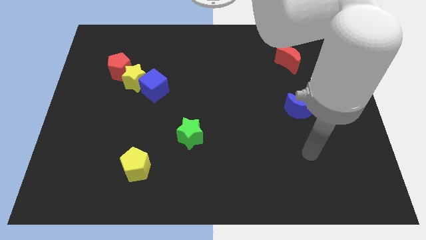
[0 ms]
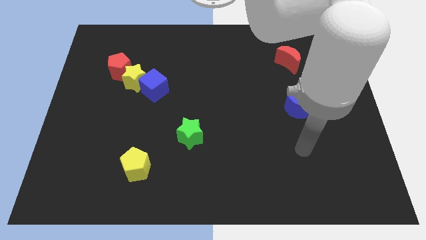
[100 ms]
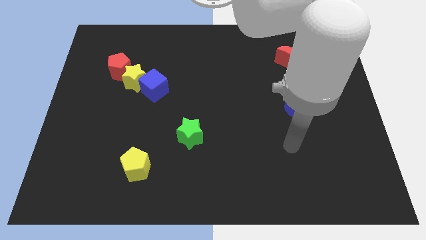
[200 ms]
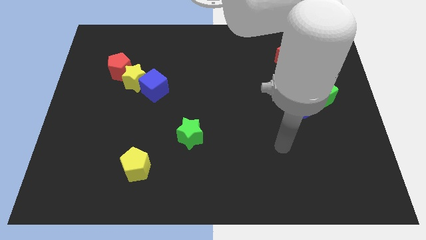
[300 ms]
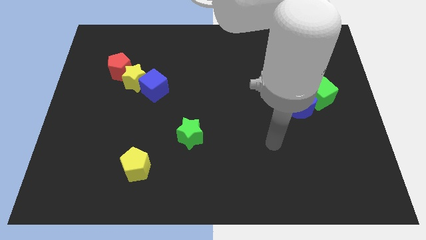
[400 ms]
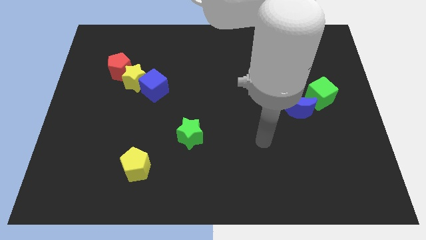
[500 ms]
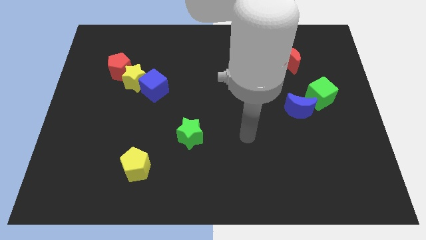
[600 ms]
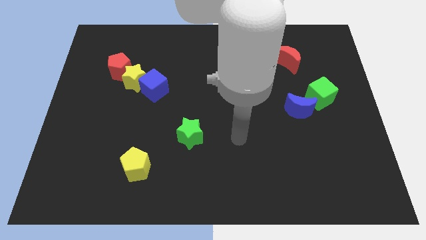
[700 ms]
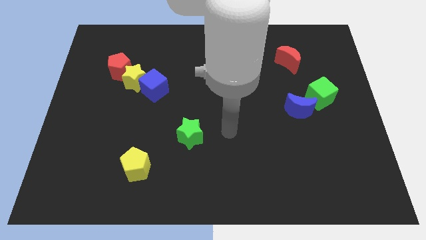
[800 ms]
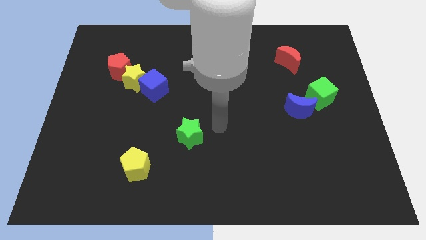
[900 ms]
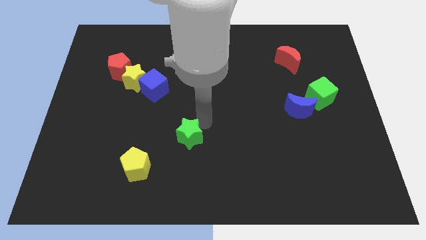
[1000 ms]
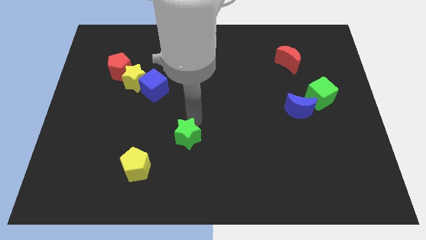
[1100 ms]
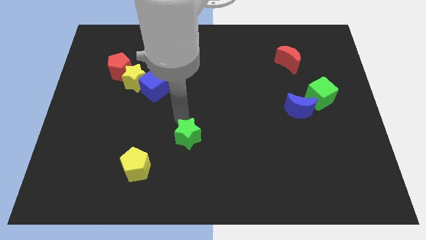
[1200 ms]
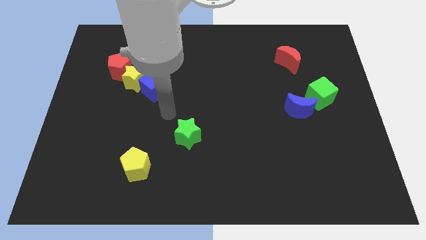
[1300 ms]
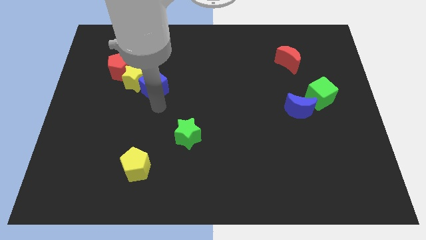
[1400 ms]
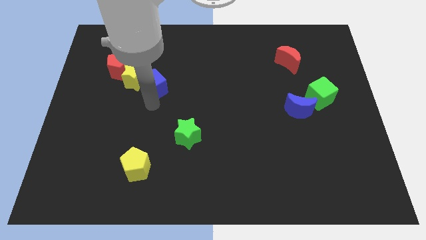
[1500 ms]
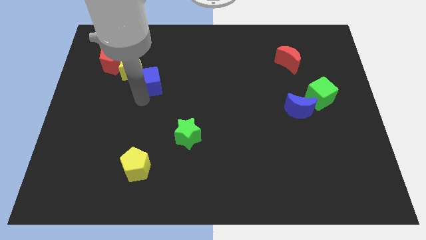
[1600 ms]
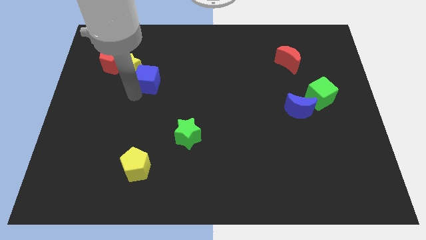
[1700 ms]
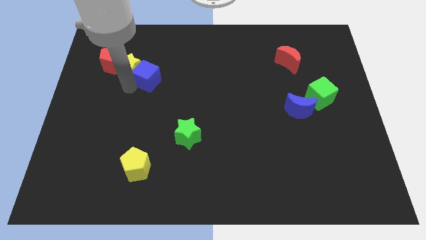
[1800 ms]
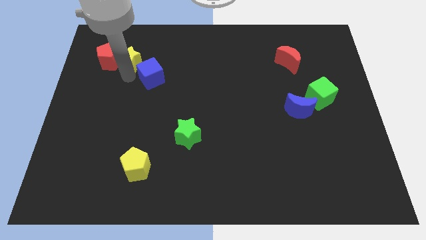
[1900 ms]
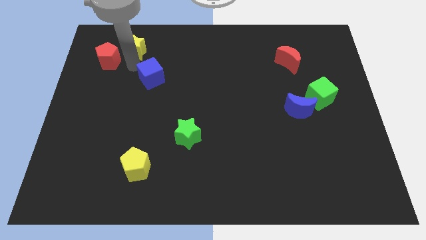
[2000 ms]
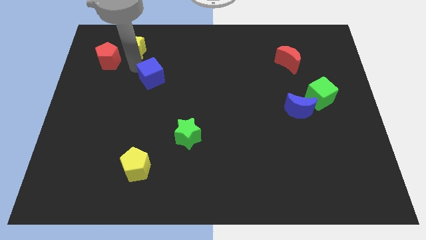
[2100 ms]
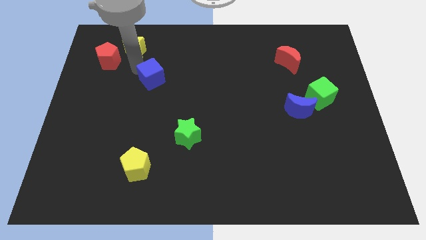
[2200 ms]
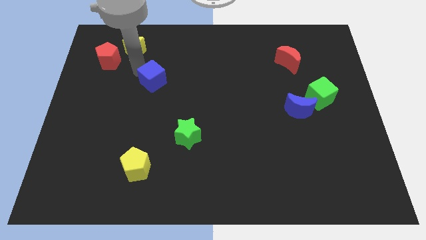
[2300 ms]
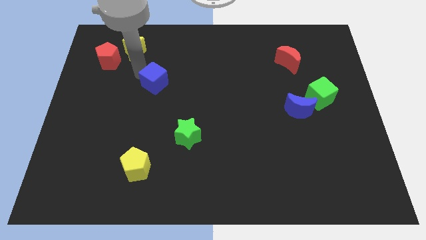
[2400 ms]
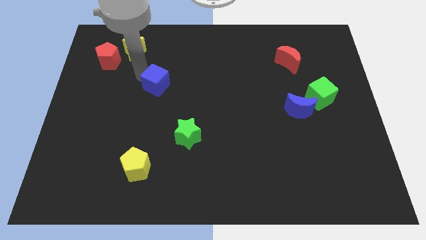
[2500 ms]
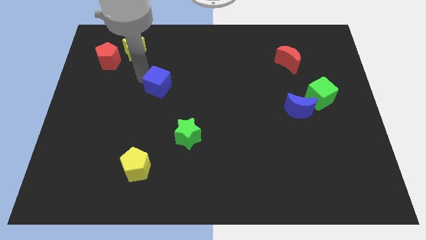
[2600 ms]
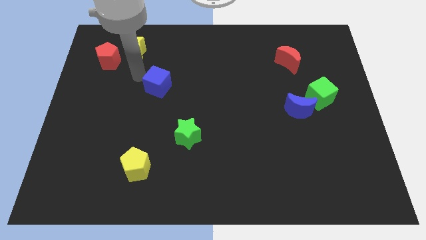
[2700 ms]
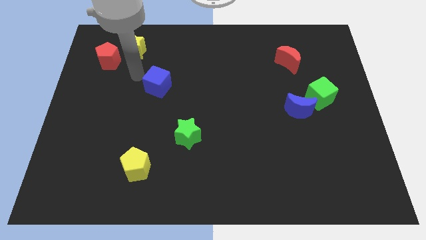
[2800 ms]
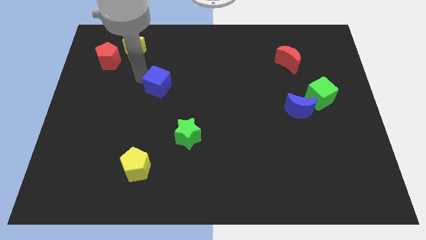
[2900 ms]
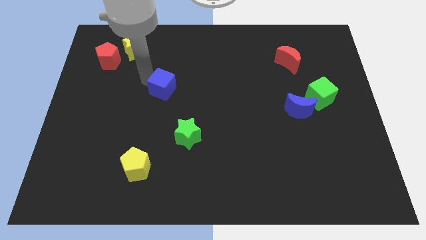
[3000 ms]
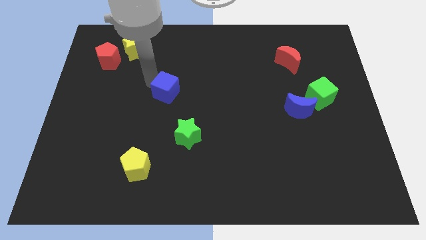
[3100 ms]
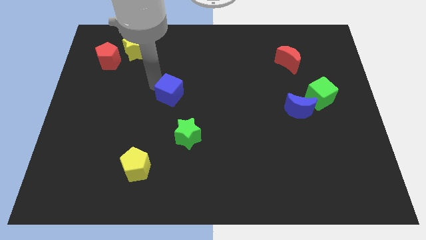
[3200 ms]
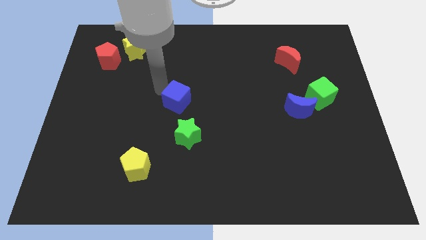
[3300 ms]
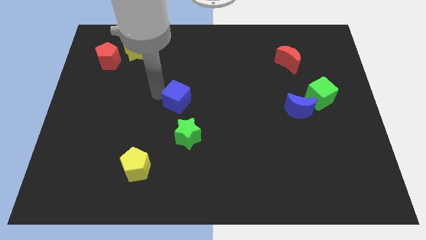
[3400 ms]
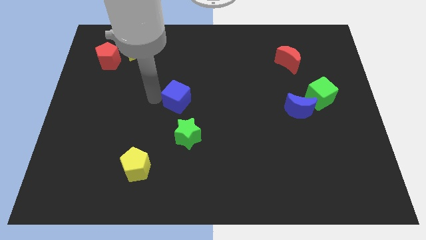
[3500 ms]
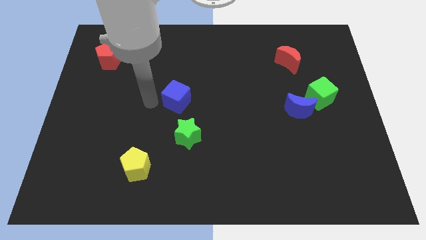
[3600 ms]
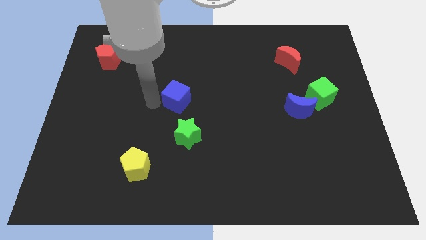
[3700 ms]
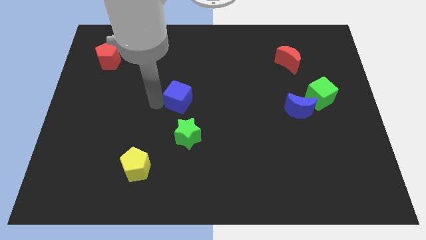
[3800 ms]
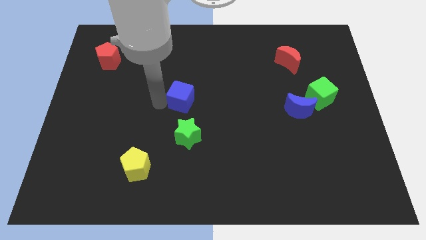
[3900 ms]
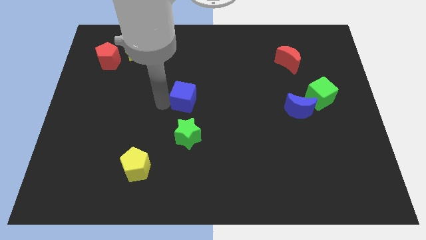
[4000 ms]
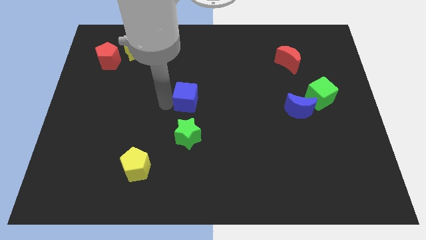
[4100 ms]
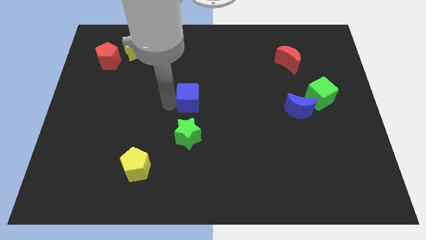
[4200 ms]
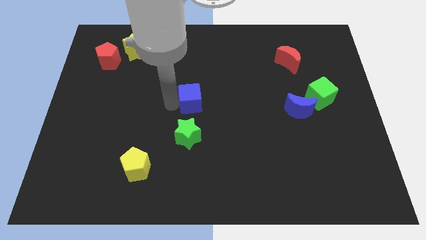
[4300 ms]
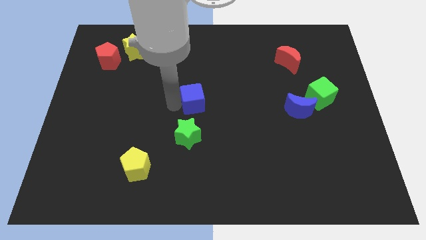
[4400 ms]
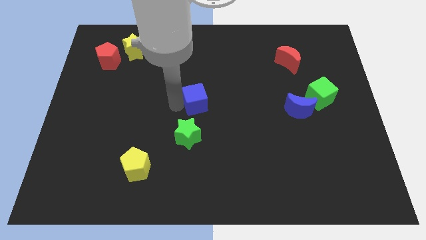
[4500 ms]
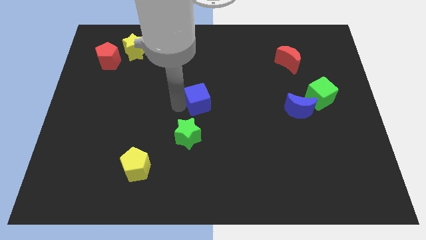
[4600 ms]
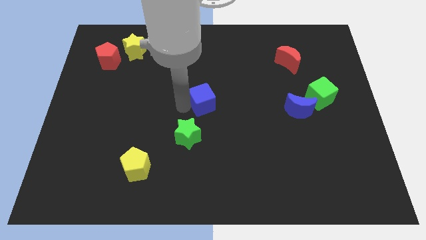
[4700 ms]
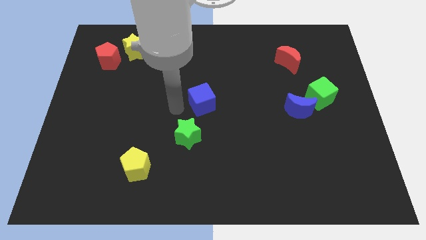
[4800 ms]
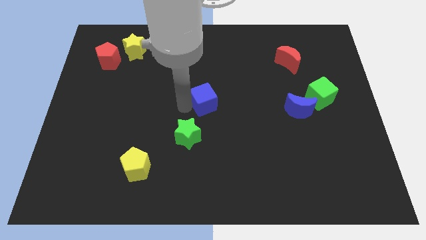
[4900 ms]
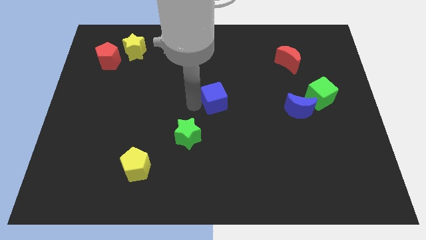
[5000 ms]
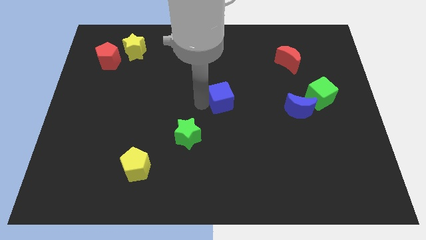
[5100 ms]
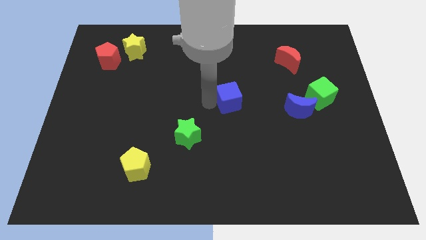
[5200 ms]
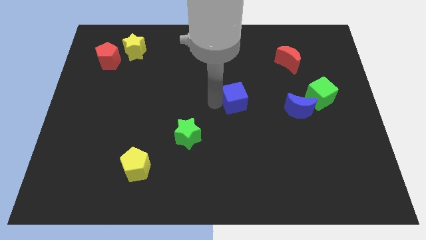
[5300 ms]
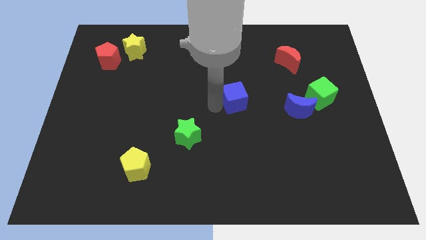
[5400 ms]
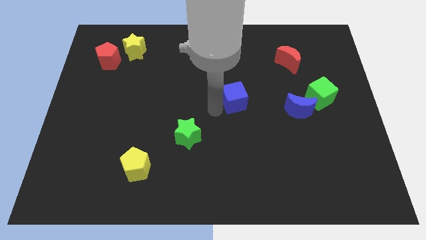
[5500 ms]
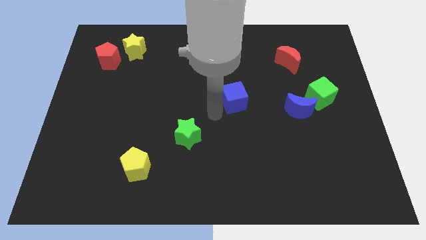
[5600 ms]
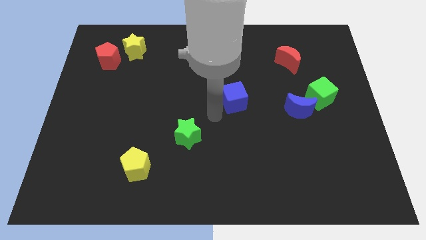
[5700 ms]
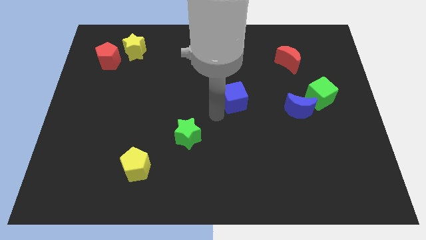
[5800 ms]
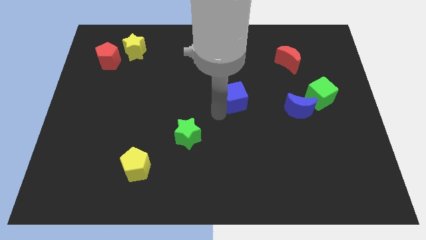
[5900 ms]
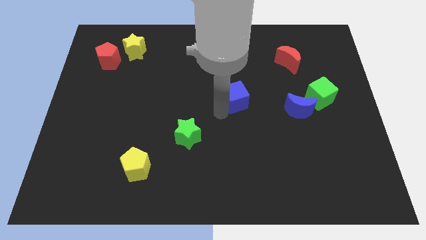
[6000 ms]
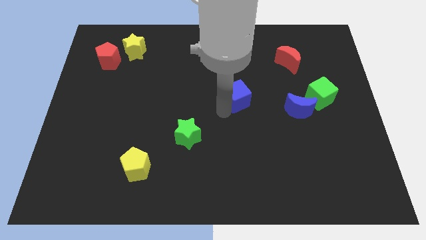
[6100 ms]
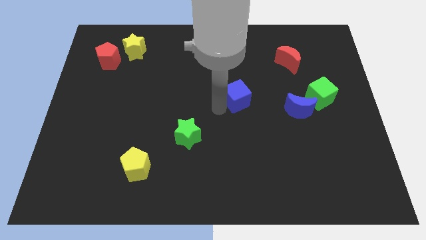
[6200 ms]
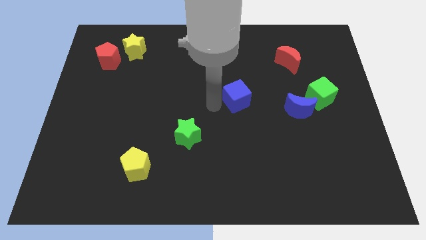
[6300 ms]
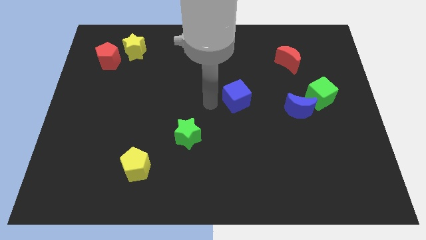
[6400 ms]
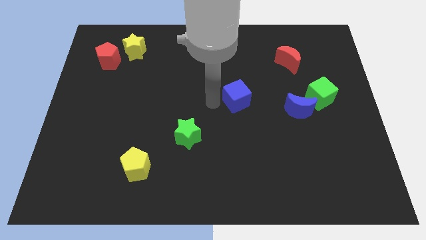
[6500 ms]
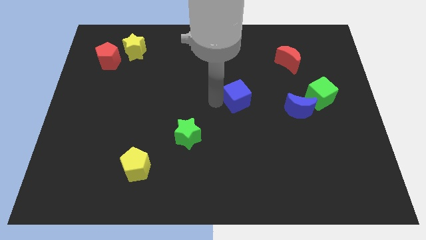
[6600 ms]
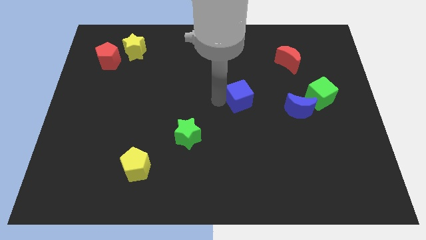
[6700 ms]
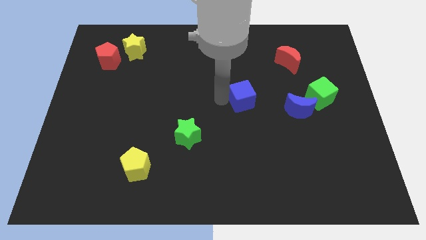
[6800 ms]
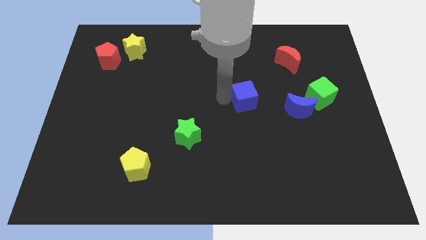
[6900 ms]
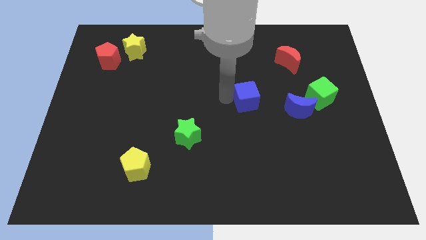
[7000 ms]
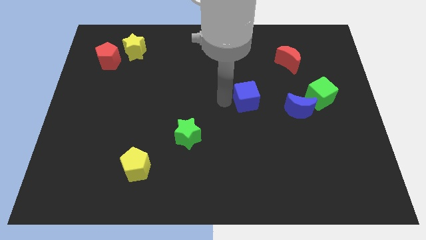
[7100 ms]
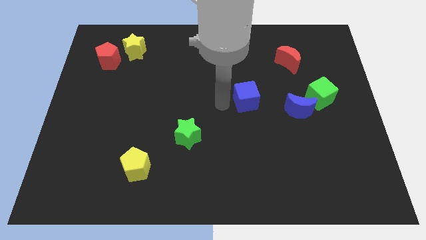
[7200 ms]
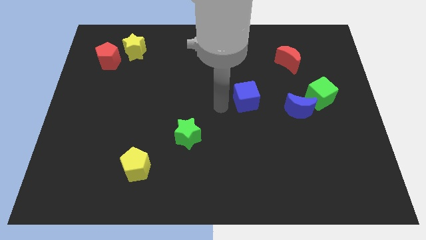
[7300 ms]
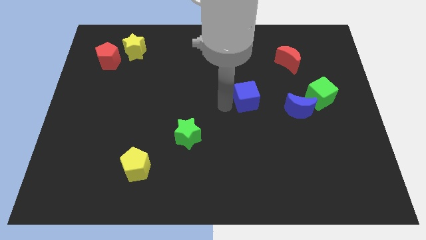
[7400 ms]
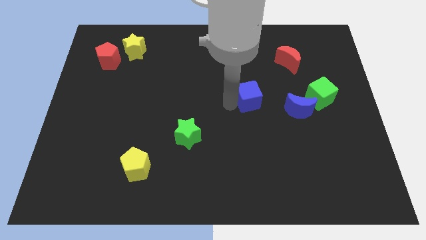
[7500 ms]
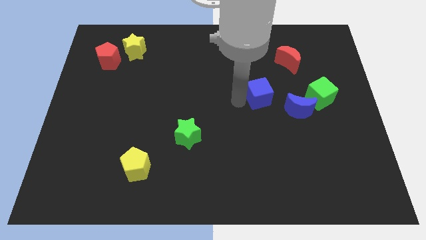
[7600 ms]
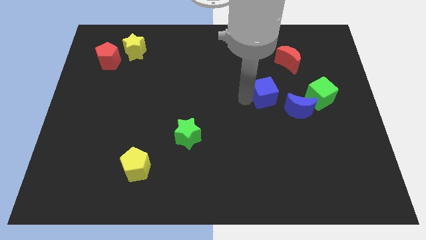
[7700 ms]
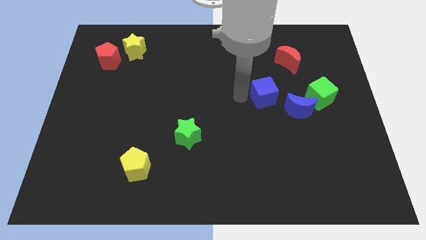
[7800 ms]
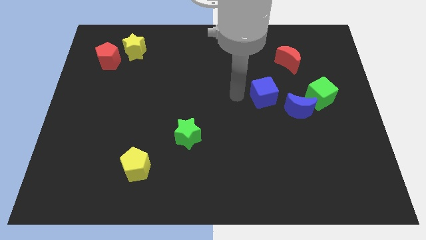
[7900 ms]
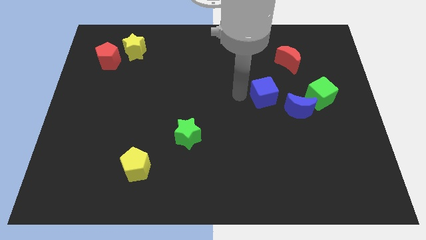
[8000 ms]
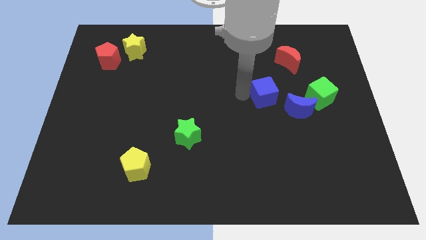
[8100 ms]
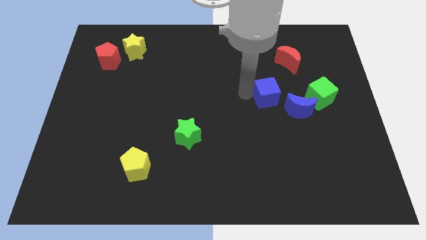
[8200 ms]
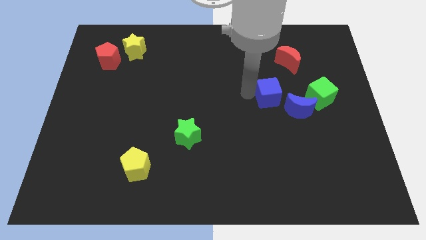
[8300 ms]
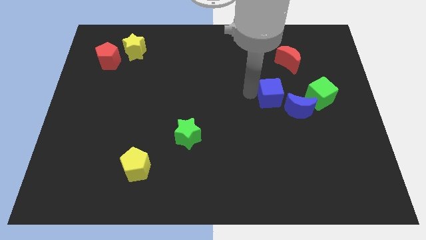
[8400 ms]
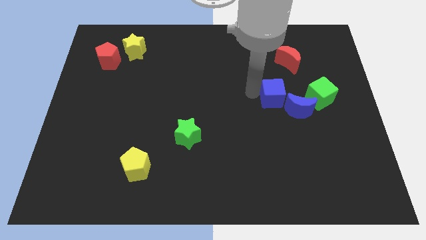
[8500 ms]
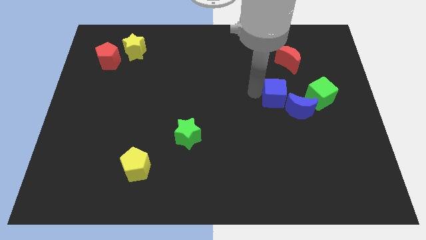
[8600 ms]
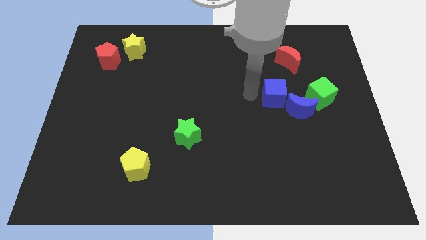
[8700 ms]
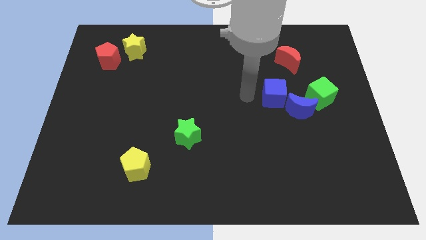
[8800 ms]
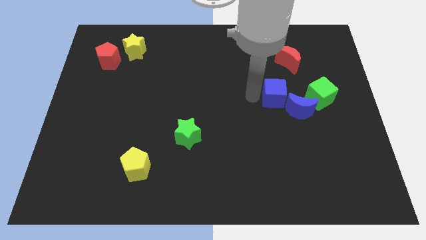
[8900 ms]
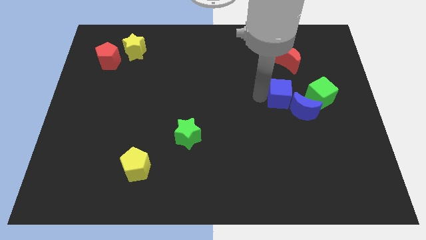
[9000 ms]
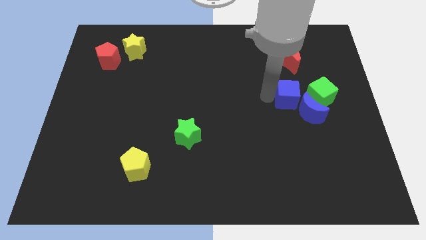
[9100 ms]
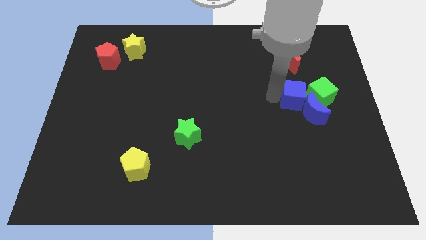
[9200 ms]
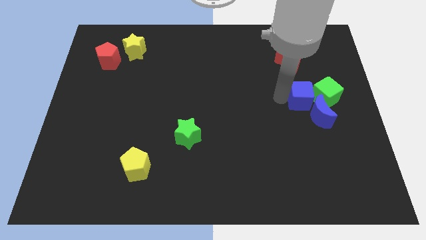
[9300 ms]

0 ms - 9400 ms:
slide the blue cube next to the green cube
